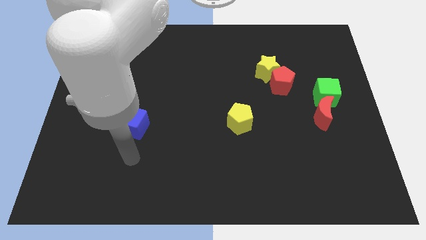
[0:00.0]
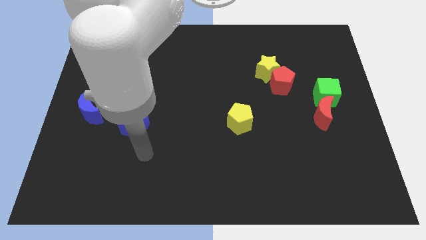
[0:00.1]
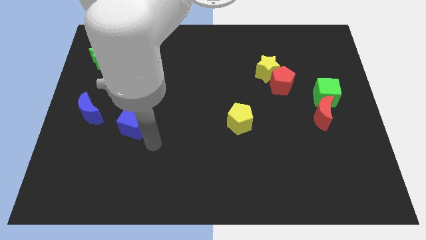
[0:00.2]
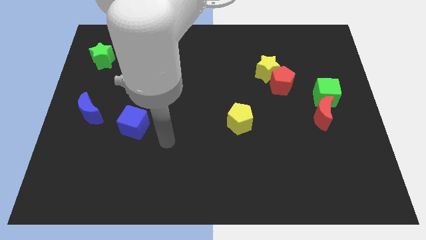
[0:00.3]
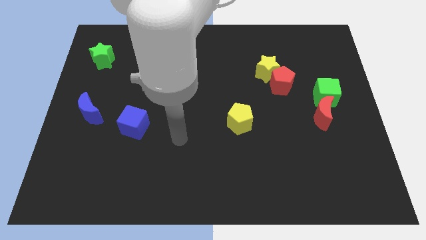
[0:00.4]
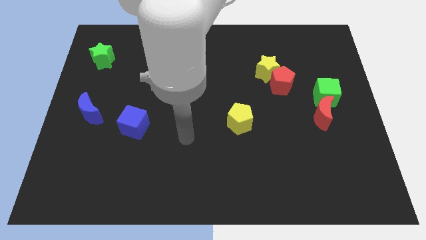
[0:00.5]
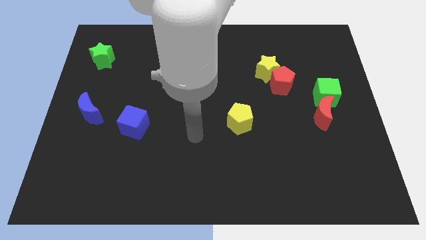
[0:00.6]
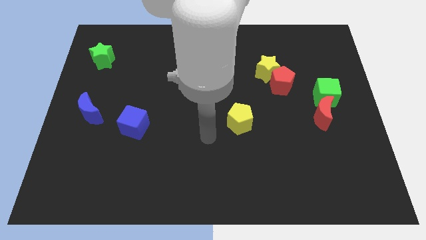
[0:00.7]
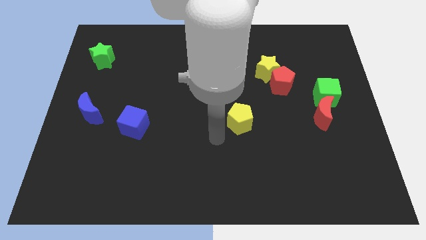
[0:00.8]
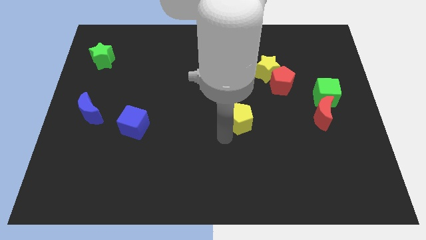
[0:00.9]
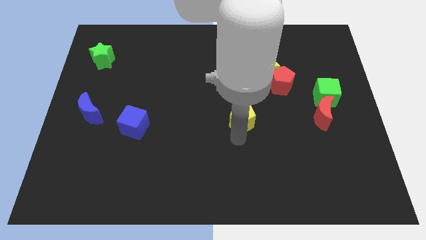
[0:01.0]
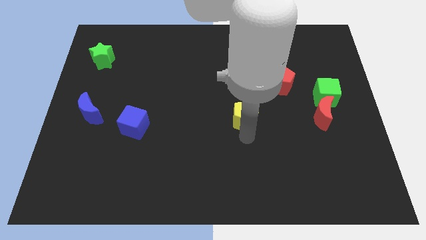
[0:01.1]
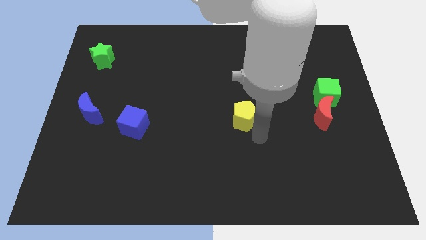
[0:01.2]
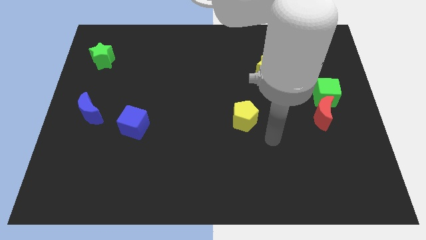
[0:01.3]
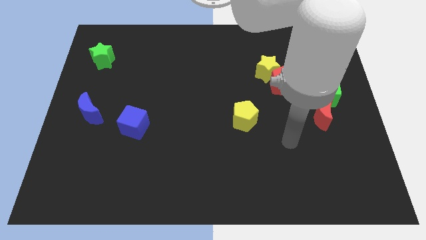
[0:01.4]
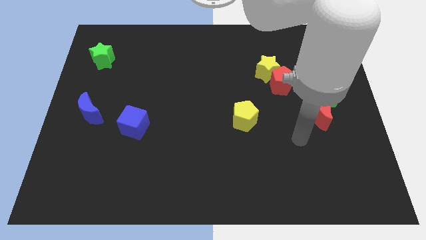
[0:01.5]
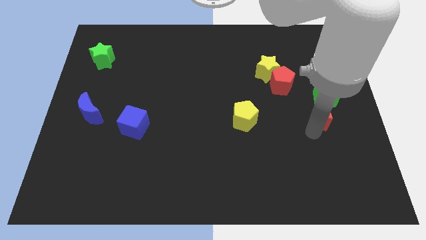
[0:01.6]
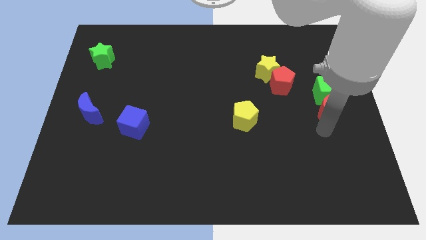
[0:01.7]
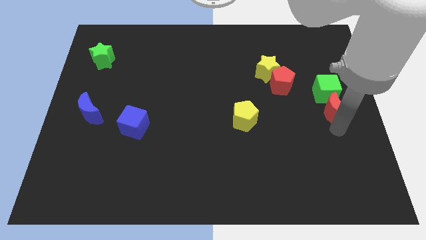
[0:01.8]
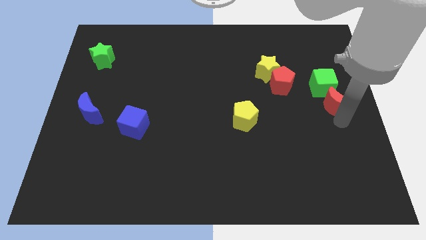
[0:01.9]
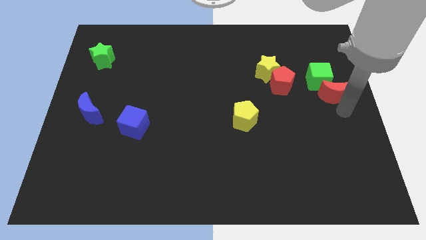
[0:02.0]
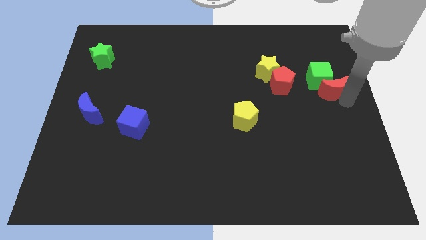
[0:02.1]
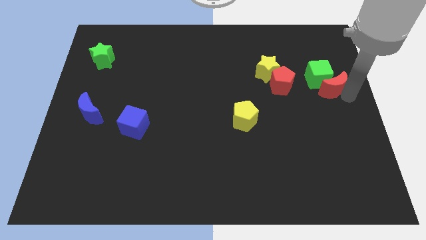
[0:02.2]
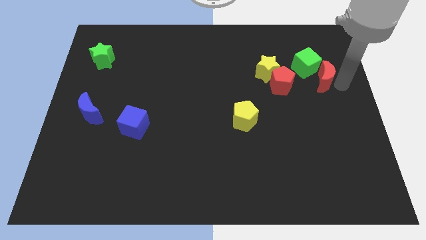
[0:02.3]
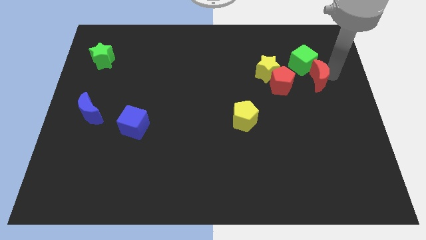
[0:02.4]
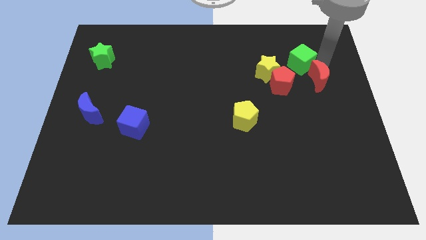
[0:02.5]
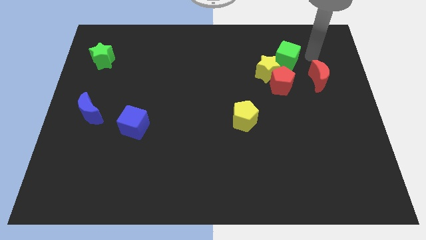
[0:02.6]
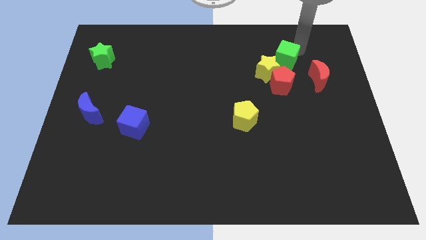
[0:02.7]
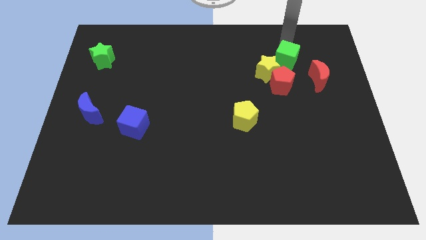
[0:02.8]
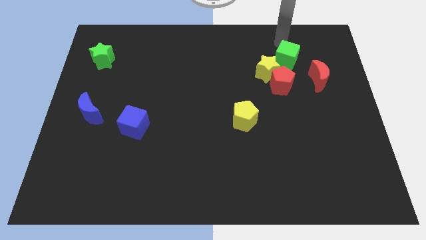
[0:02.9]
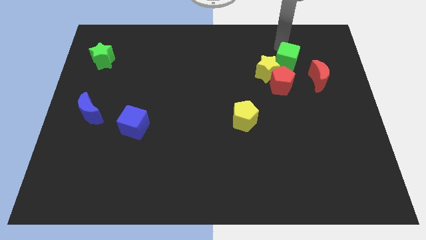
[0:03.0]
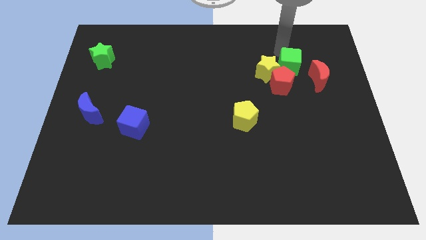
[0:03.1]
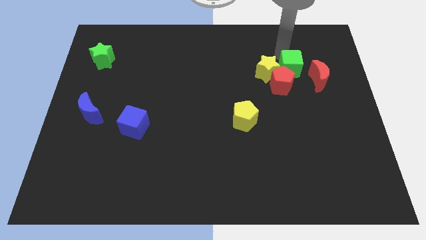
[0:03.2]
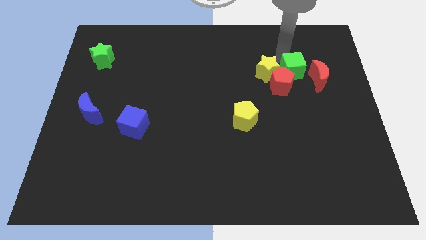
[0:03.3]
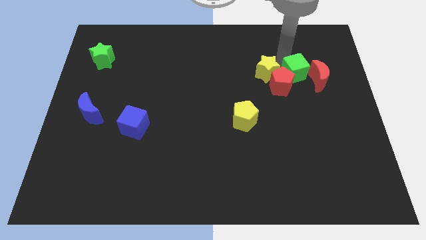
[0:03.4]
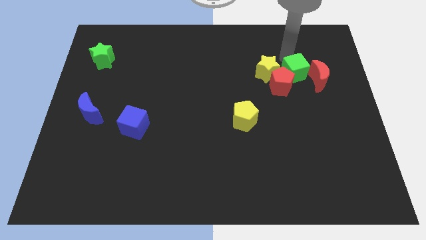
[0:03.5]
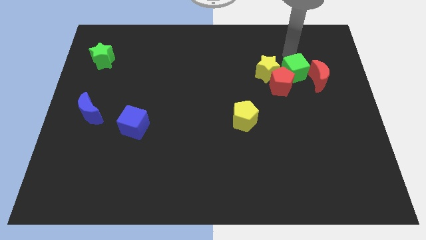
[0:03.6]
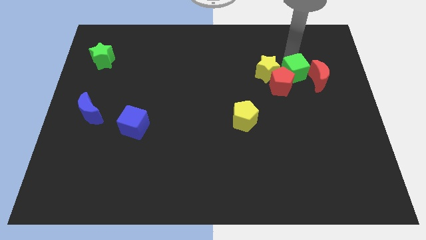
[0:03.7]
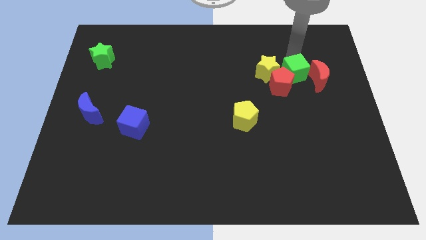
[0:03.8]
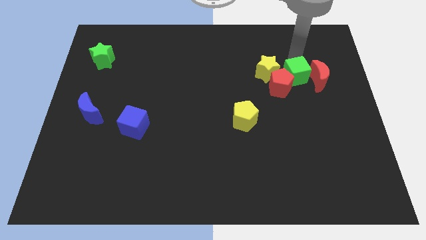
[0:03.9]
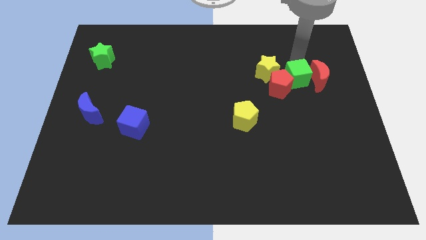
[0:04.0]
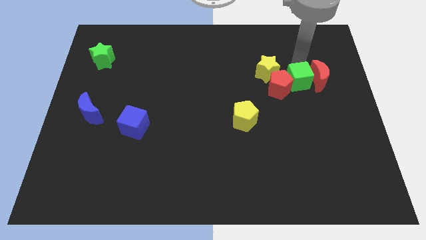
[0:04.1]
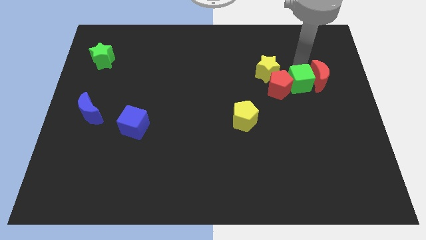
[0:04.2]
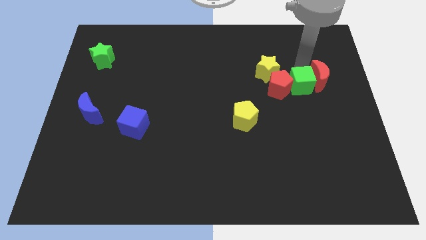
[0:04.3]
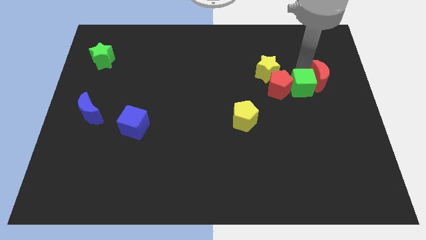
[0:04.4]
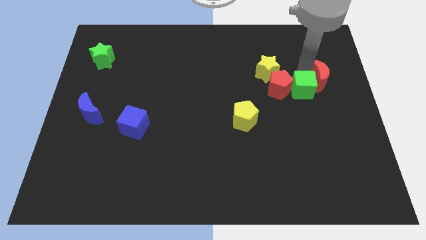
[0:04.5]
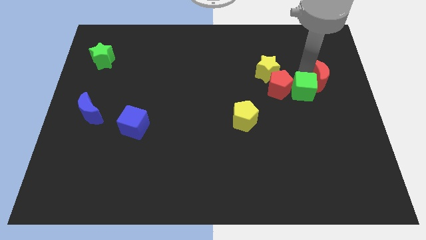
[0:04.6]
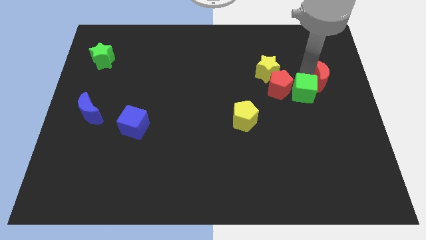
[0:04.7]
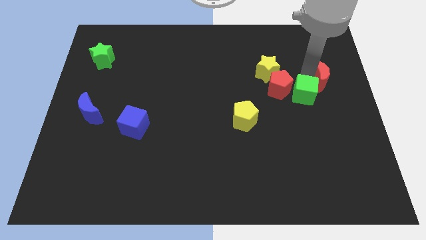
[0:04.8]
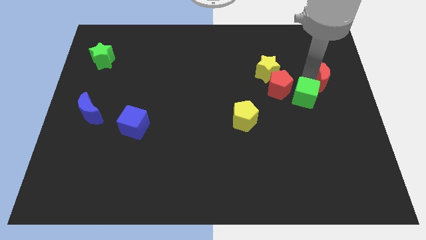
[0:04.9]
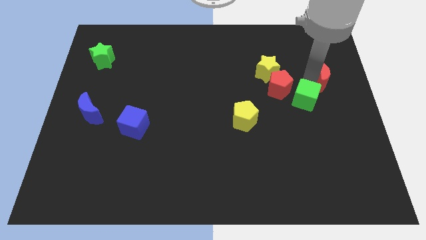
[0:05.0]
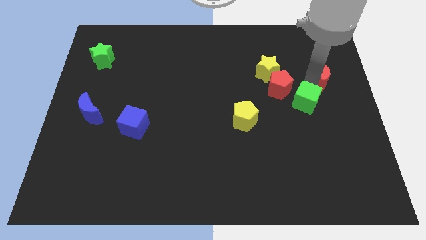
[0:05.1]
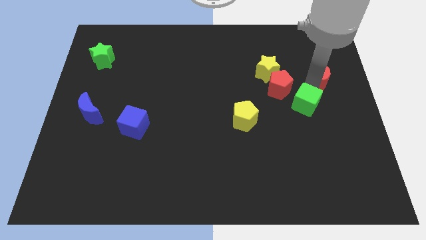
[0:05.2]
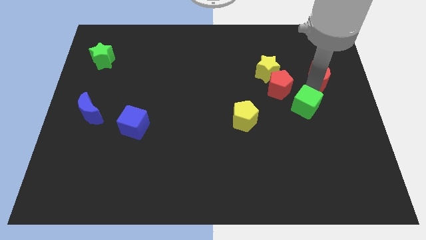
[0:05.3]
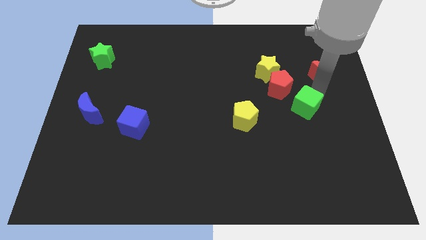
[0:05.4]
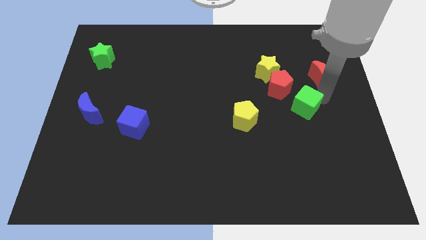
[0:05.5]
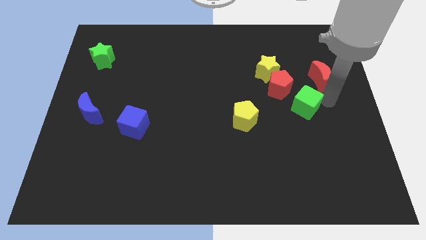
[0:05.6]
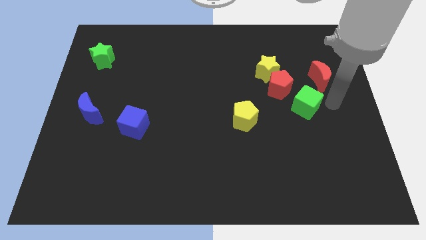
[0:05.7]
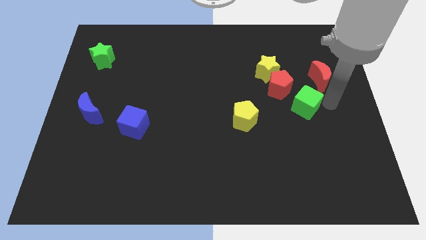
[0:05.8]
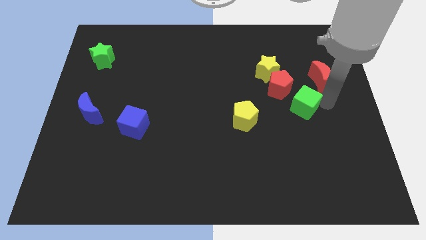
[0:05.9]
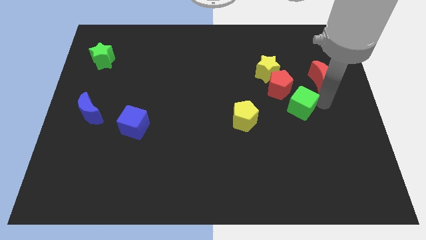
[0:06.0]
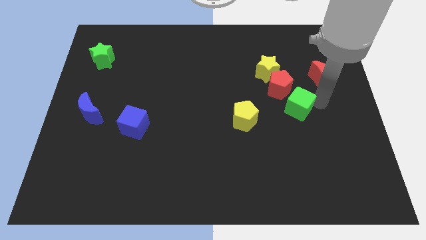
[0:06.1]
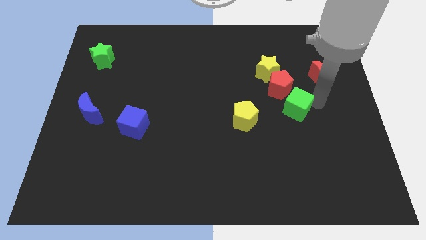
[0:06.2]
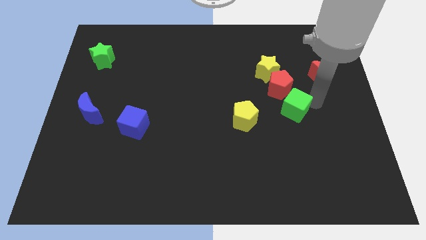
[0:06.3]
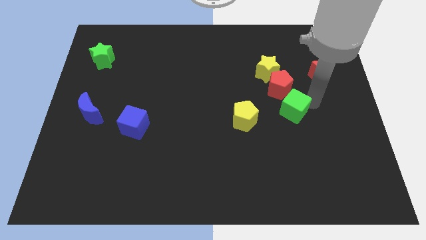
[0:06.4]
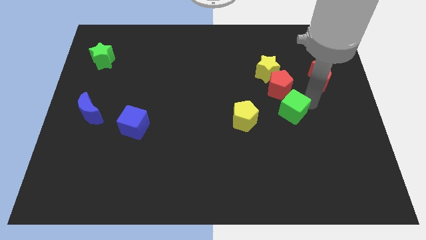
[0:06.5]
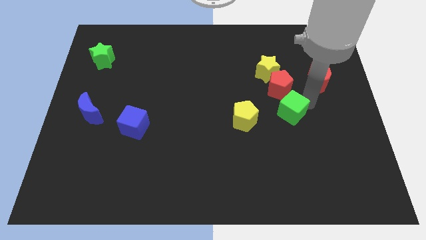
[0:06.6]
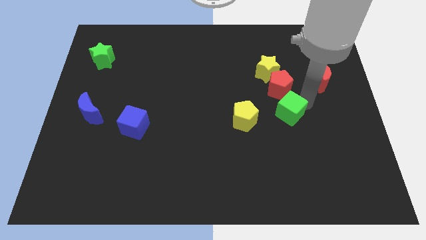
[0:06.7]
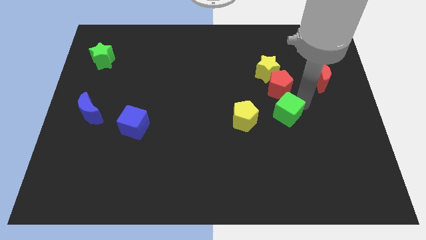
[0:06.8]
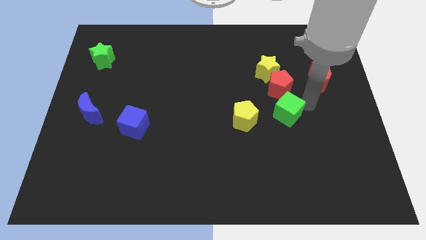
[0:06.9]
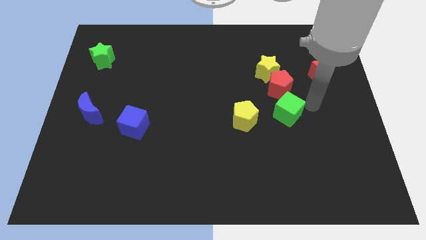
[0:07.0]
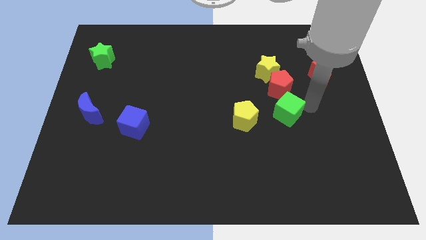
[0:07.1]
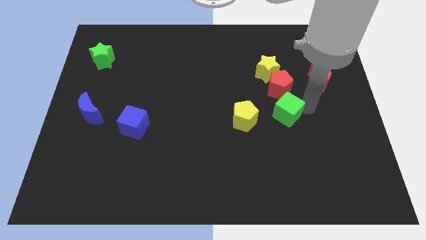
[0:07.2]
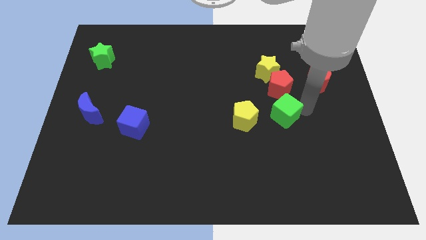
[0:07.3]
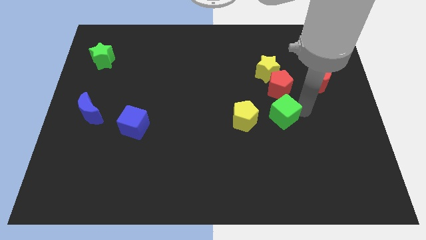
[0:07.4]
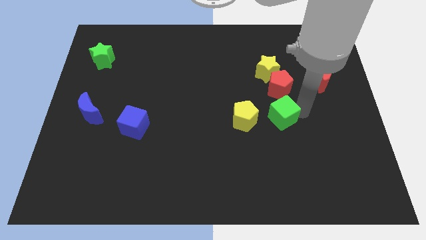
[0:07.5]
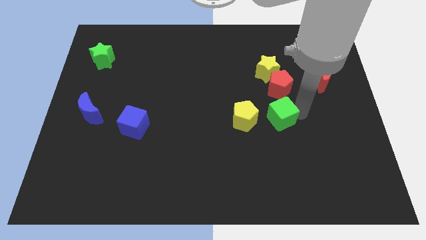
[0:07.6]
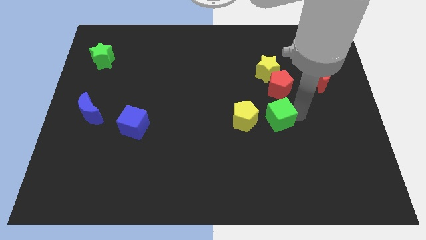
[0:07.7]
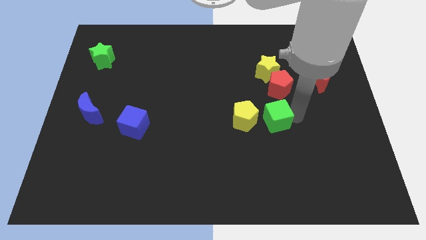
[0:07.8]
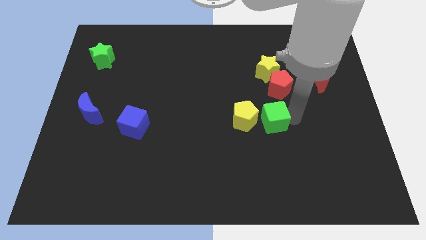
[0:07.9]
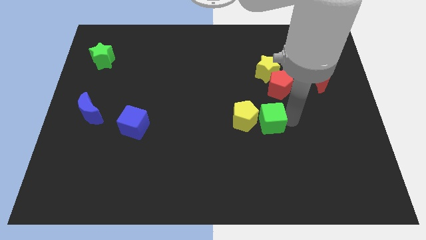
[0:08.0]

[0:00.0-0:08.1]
slide the green cube to the yellow pentagon
